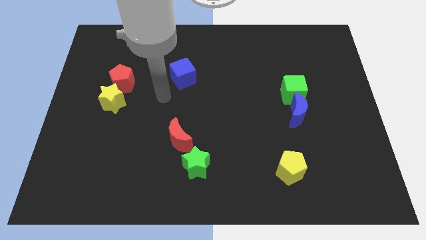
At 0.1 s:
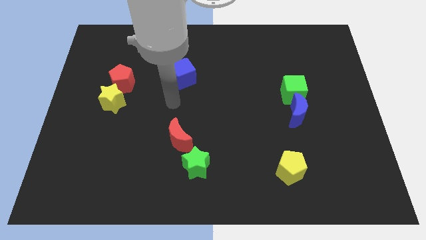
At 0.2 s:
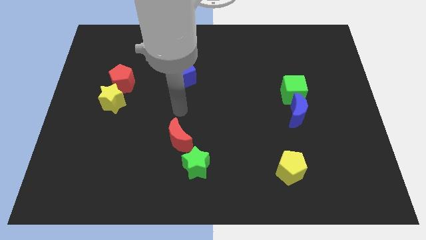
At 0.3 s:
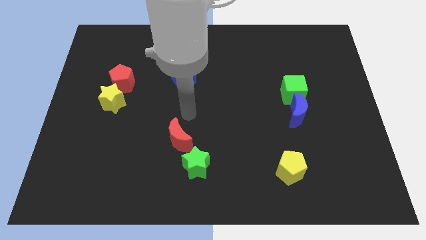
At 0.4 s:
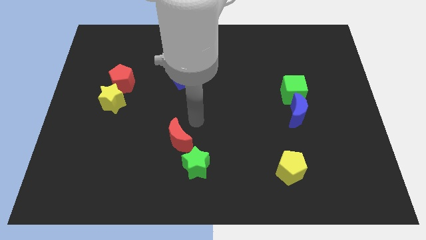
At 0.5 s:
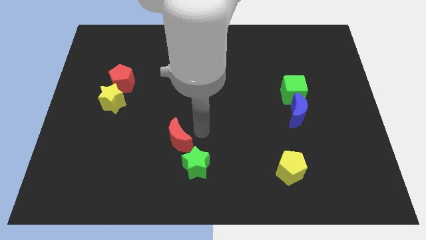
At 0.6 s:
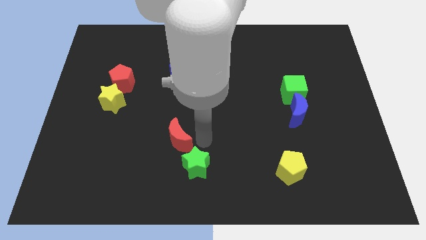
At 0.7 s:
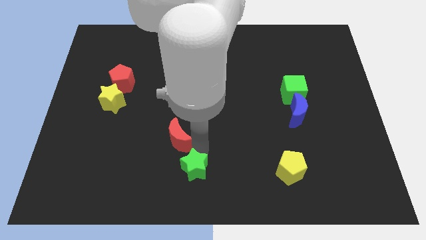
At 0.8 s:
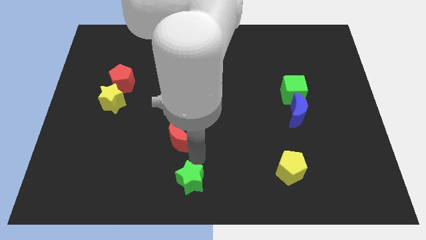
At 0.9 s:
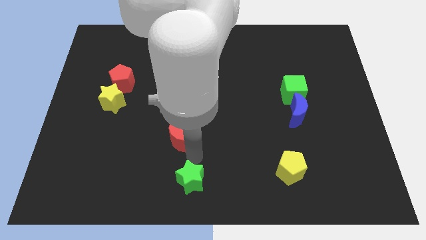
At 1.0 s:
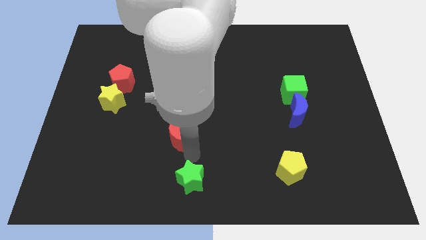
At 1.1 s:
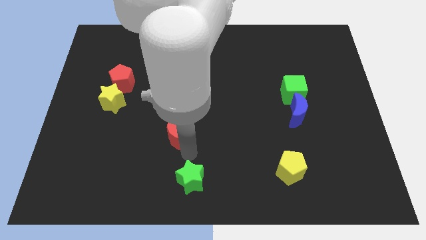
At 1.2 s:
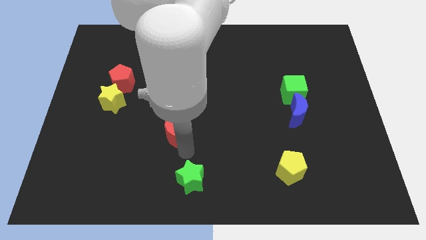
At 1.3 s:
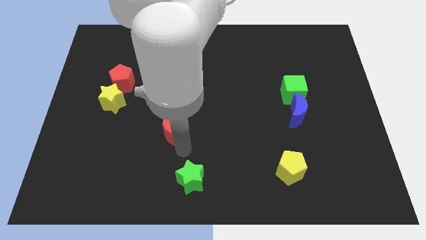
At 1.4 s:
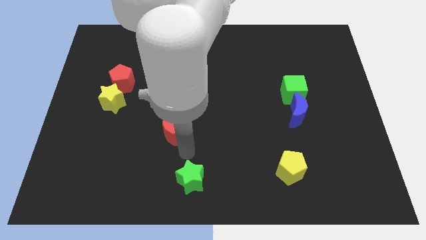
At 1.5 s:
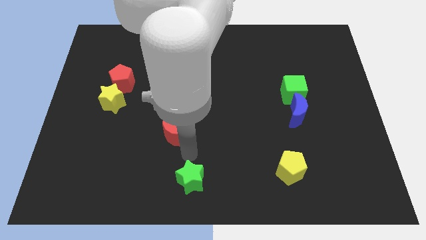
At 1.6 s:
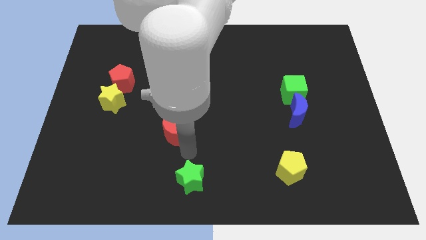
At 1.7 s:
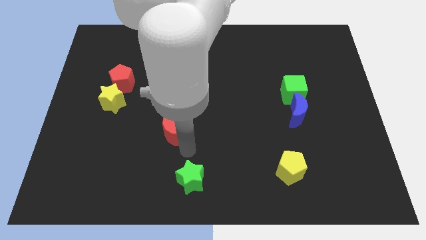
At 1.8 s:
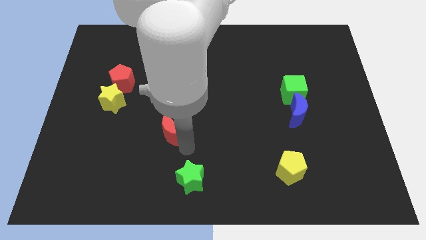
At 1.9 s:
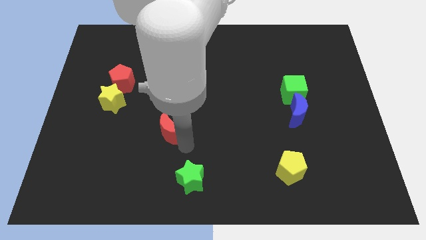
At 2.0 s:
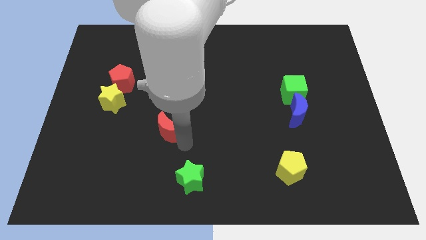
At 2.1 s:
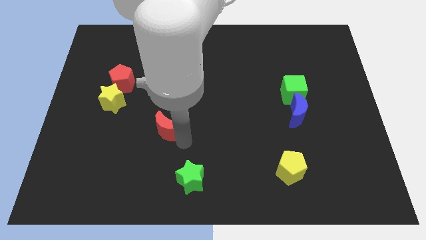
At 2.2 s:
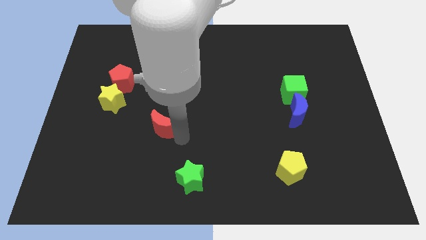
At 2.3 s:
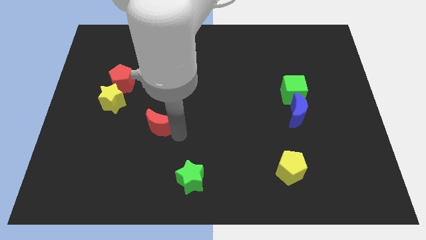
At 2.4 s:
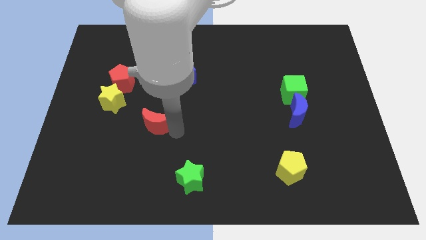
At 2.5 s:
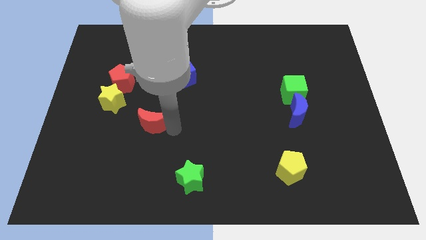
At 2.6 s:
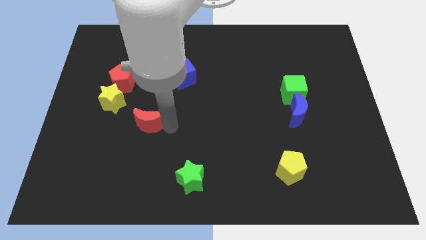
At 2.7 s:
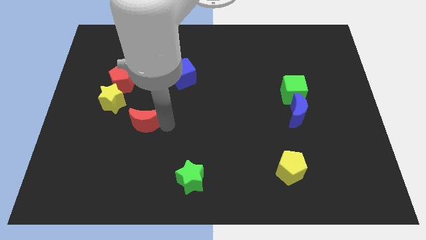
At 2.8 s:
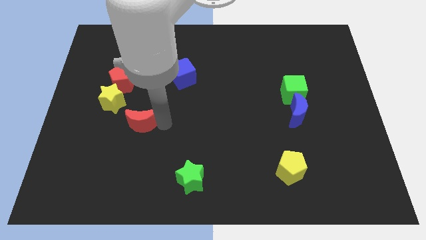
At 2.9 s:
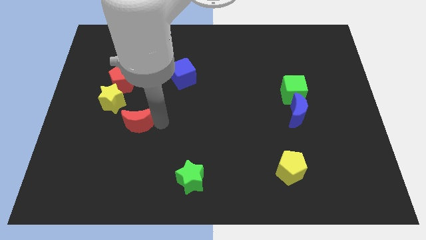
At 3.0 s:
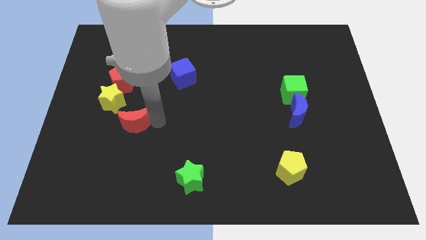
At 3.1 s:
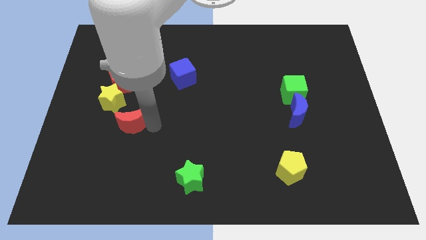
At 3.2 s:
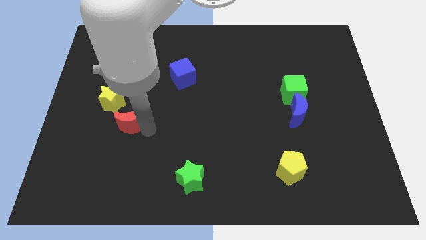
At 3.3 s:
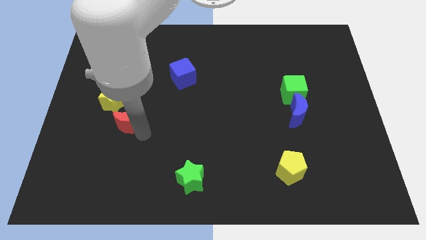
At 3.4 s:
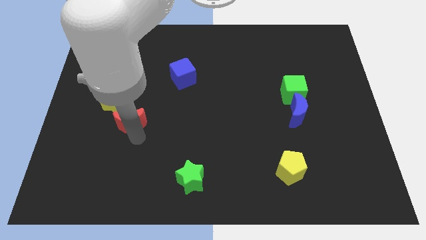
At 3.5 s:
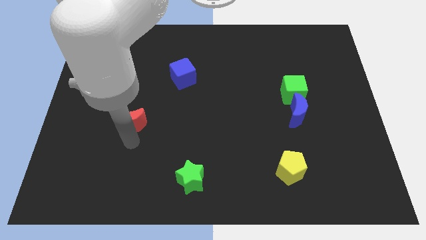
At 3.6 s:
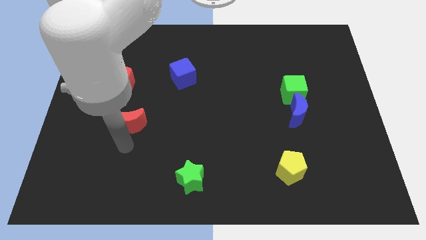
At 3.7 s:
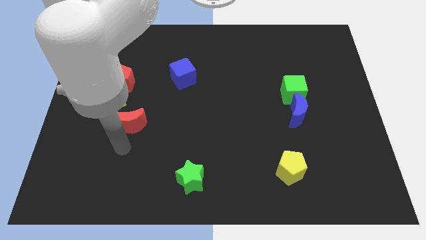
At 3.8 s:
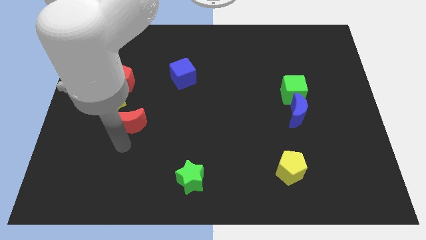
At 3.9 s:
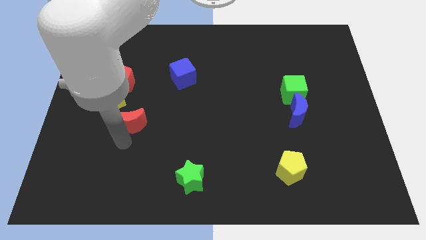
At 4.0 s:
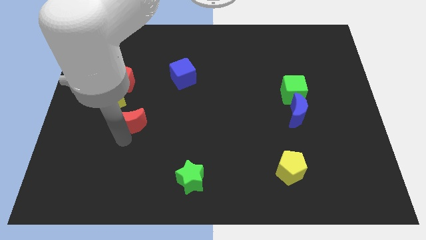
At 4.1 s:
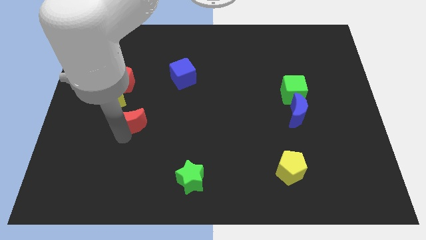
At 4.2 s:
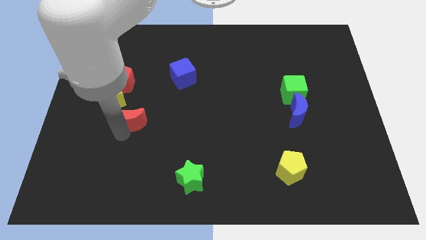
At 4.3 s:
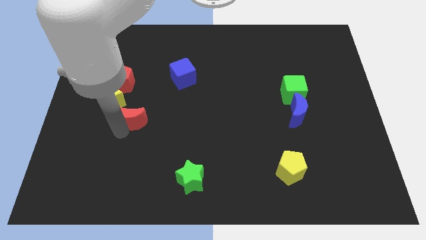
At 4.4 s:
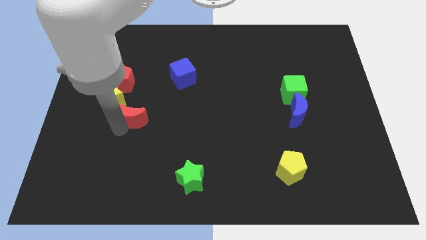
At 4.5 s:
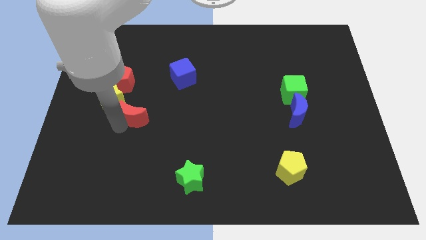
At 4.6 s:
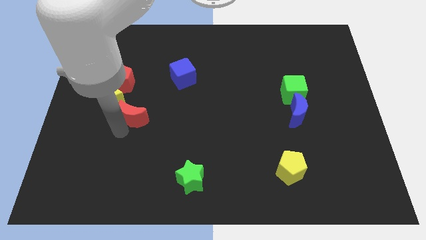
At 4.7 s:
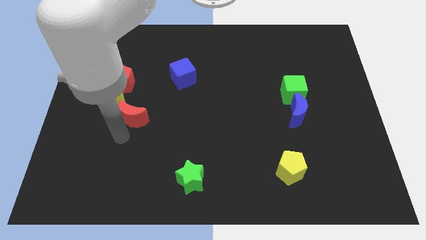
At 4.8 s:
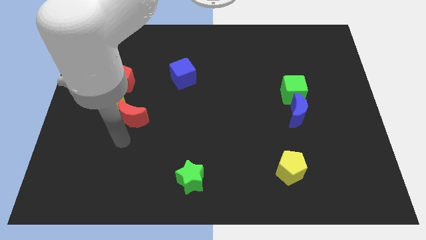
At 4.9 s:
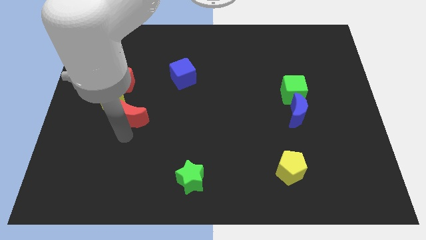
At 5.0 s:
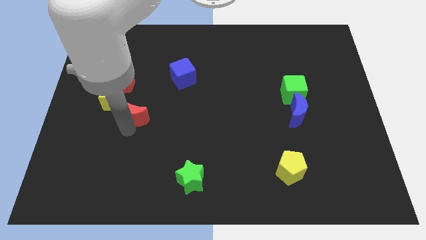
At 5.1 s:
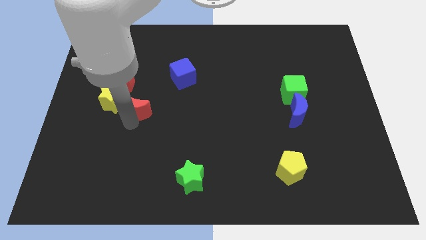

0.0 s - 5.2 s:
put the red moon diagonally down and to the right of the red pentagon

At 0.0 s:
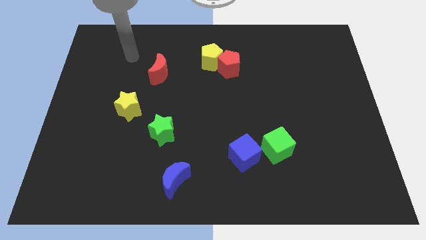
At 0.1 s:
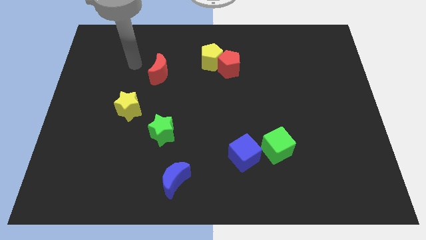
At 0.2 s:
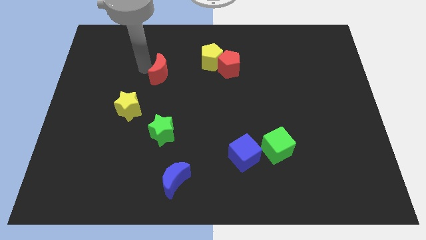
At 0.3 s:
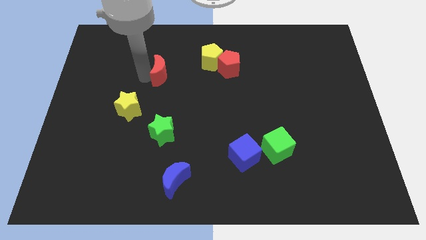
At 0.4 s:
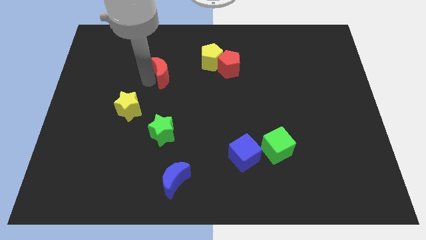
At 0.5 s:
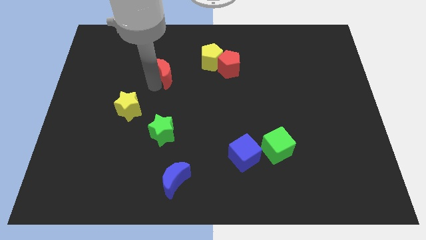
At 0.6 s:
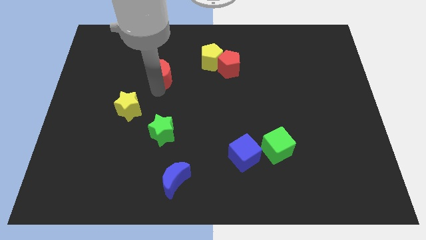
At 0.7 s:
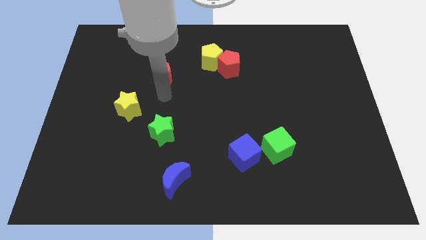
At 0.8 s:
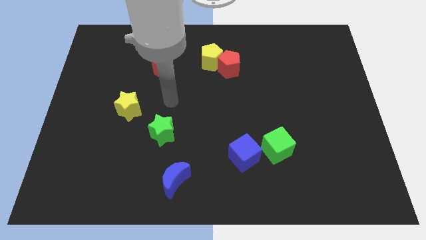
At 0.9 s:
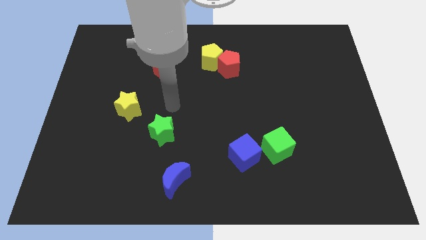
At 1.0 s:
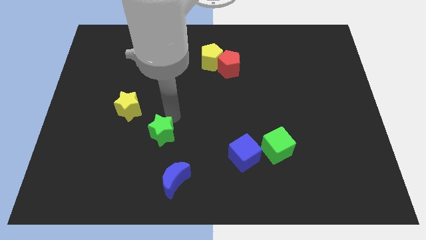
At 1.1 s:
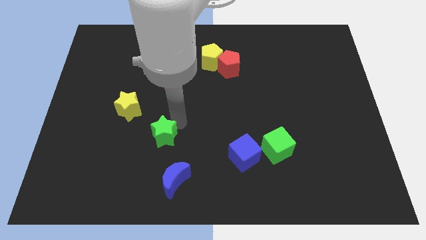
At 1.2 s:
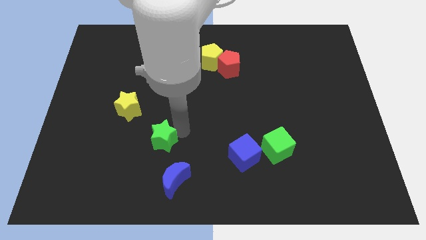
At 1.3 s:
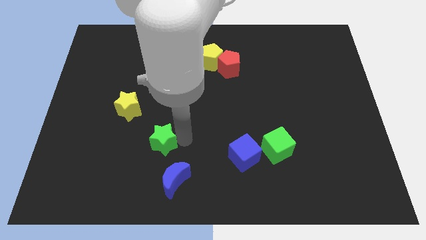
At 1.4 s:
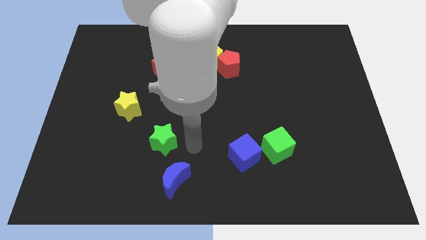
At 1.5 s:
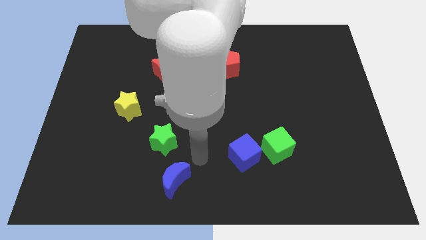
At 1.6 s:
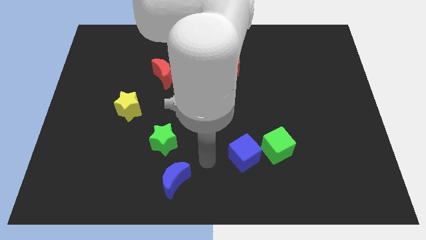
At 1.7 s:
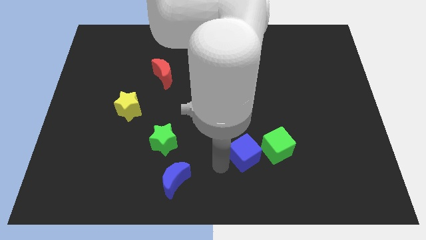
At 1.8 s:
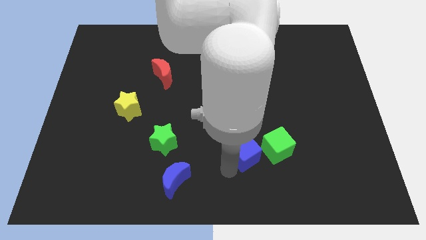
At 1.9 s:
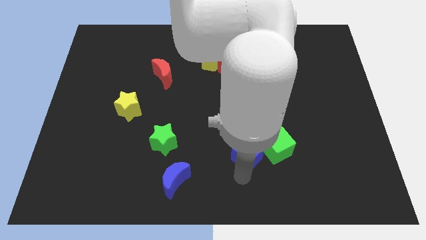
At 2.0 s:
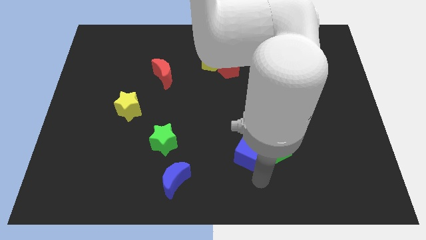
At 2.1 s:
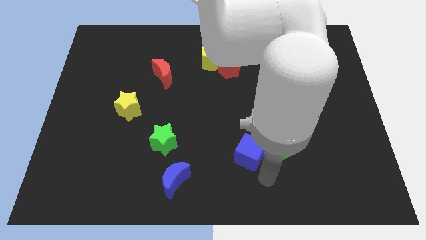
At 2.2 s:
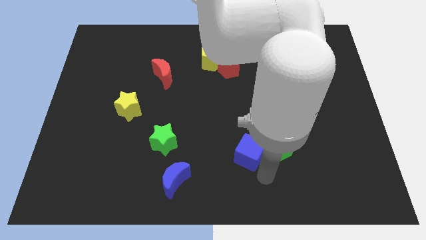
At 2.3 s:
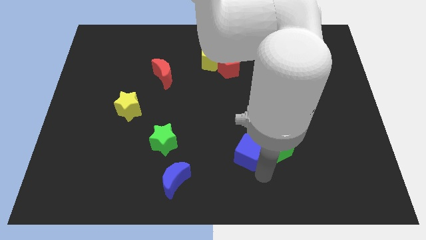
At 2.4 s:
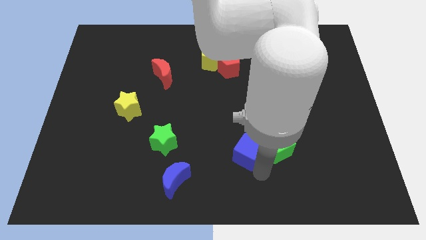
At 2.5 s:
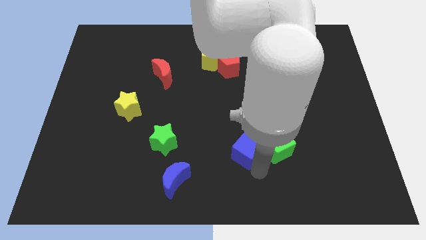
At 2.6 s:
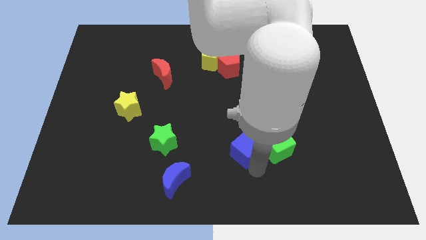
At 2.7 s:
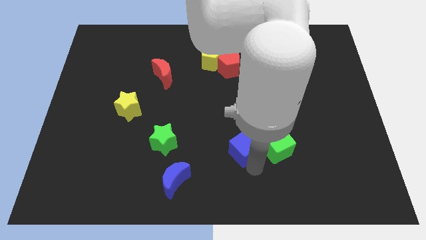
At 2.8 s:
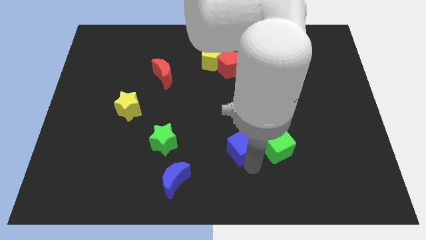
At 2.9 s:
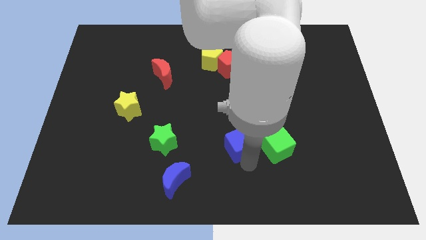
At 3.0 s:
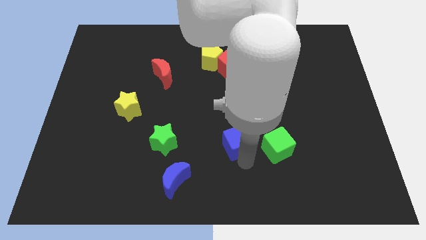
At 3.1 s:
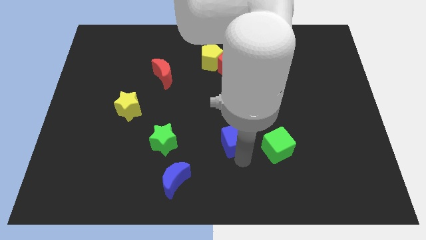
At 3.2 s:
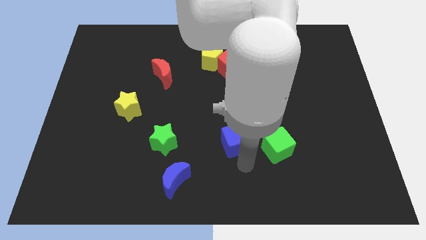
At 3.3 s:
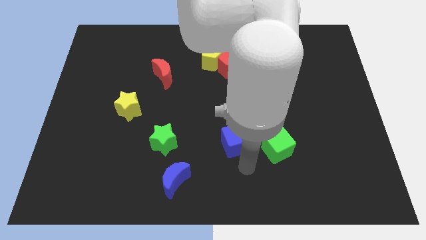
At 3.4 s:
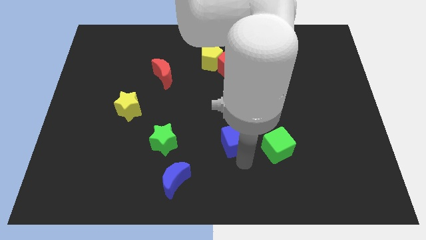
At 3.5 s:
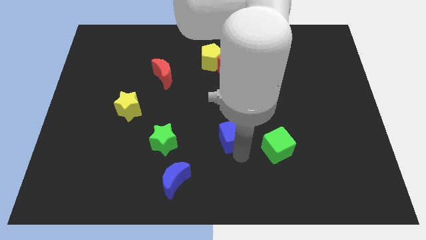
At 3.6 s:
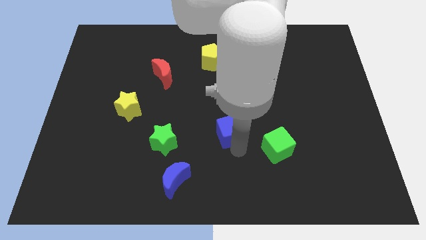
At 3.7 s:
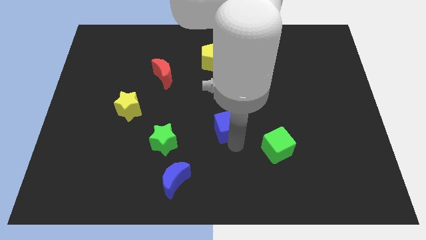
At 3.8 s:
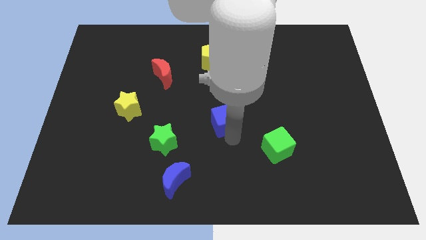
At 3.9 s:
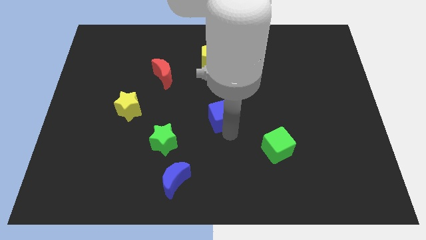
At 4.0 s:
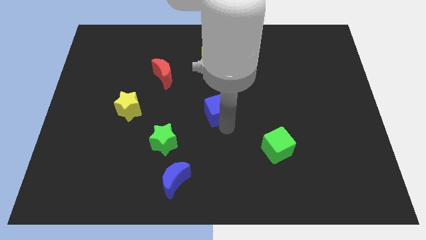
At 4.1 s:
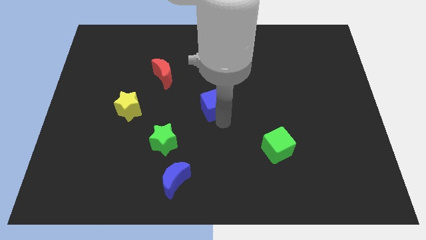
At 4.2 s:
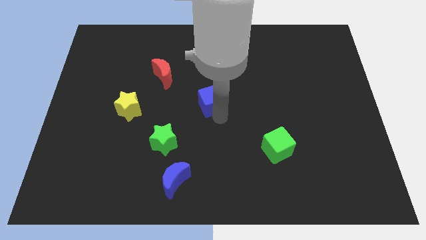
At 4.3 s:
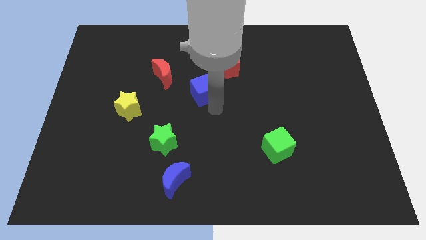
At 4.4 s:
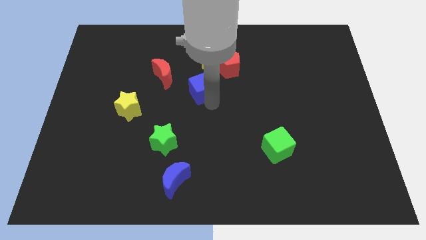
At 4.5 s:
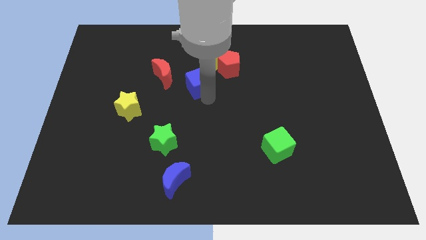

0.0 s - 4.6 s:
slide the blue cube diagonally down and to the left of the yellow pentagon
